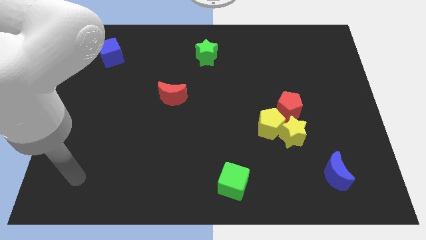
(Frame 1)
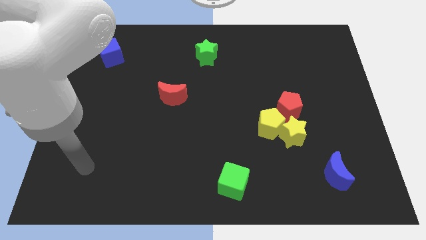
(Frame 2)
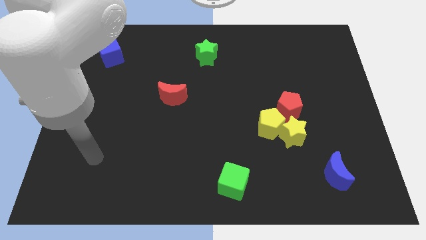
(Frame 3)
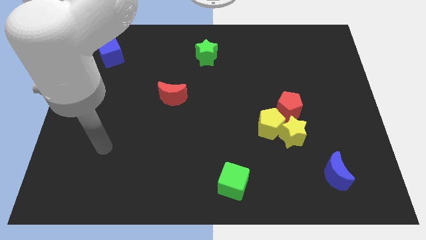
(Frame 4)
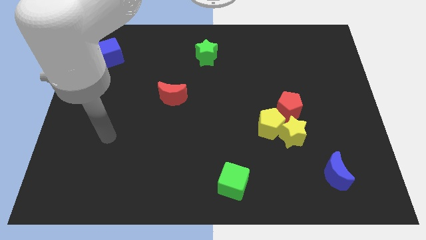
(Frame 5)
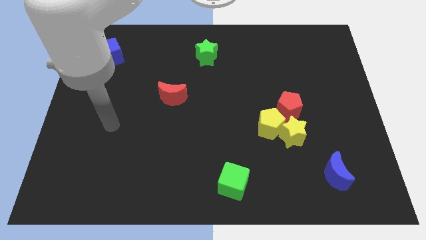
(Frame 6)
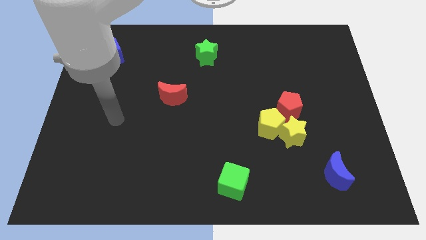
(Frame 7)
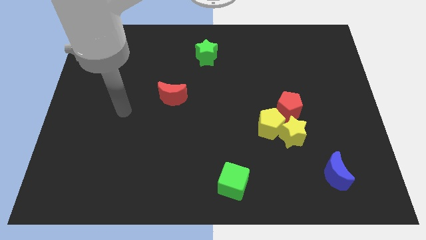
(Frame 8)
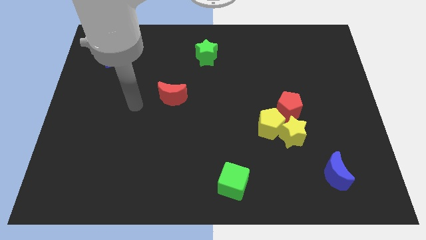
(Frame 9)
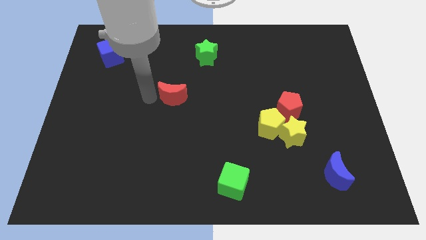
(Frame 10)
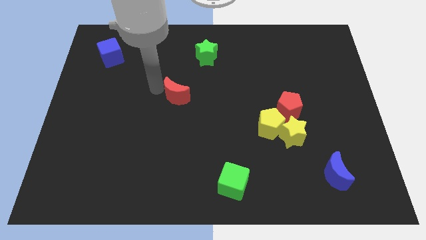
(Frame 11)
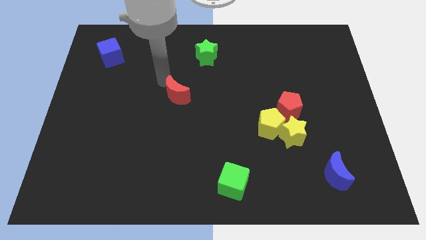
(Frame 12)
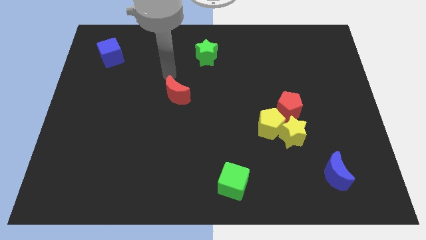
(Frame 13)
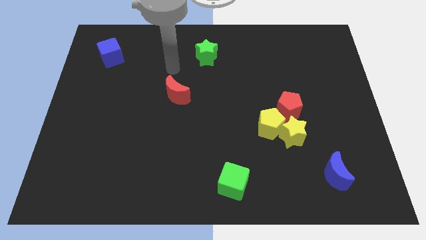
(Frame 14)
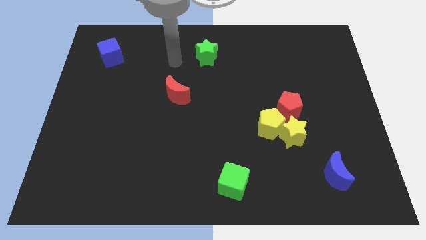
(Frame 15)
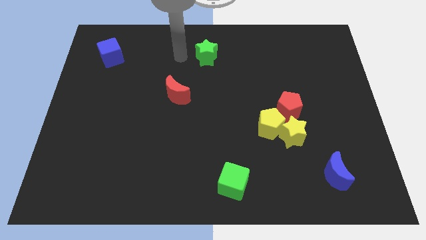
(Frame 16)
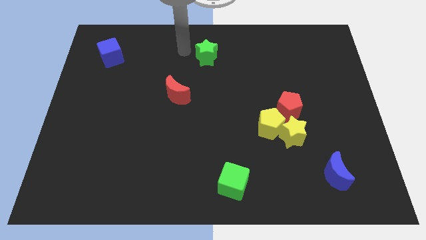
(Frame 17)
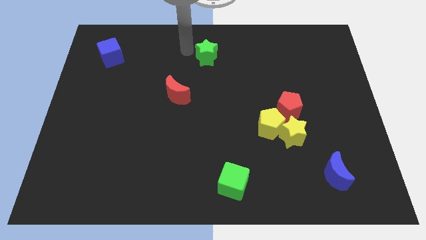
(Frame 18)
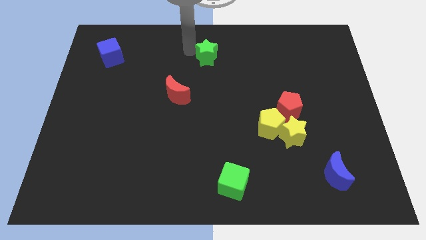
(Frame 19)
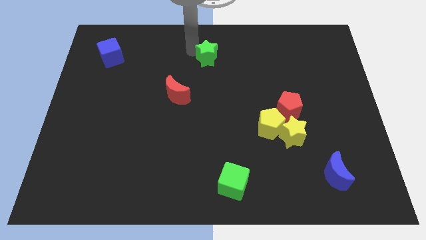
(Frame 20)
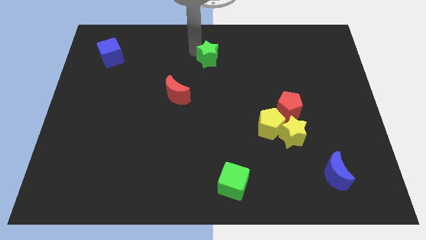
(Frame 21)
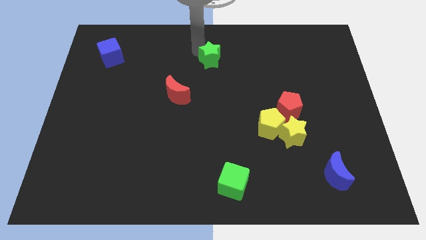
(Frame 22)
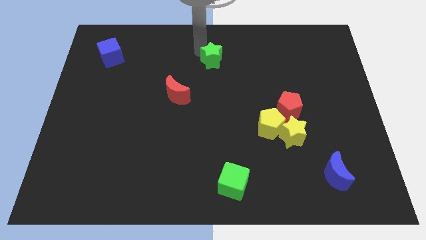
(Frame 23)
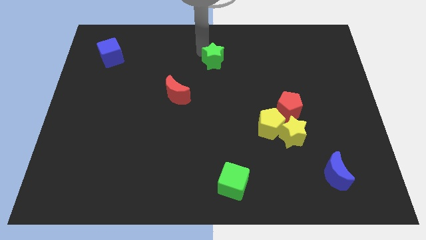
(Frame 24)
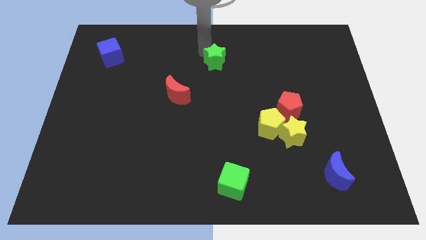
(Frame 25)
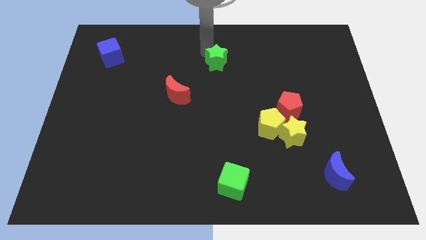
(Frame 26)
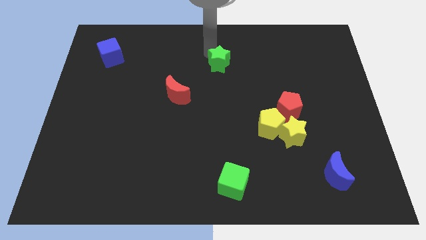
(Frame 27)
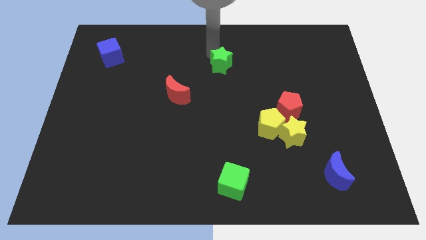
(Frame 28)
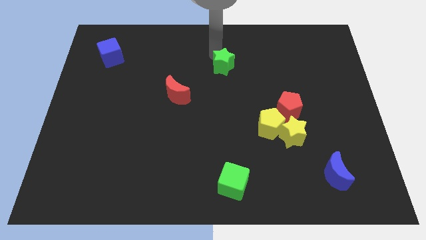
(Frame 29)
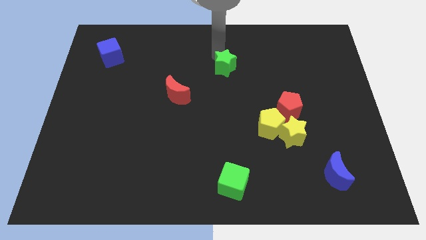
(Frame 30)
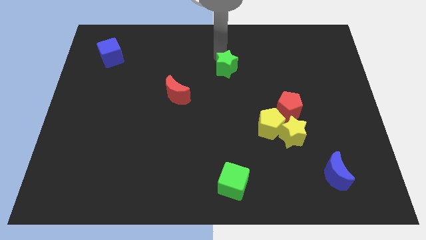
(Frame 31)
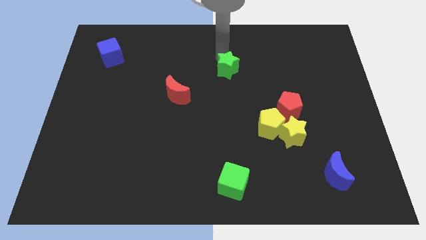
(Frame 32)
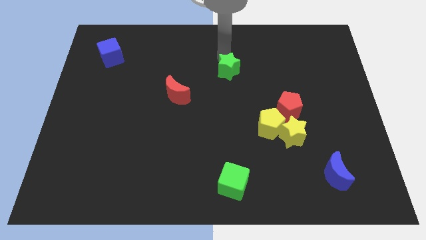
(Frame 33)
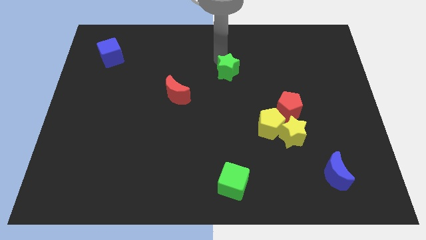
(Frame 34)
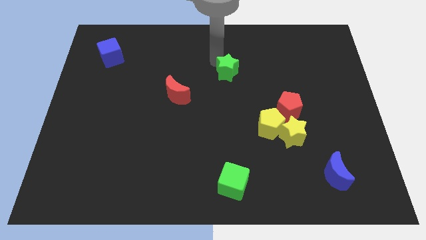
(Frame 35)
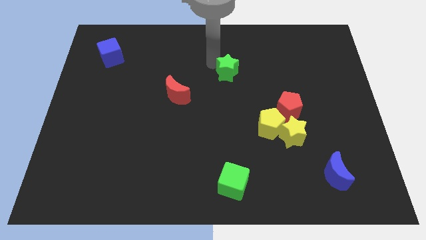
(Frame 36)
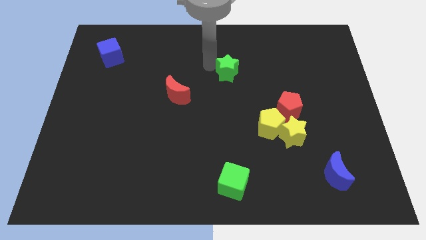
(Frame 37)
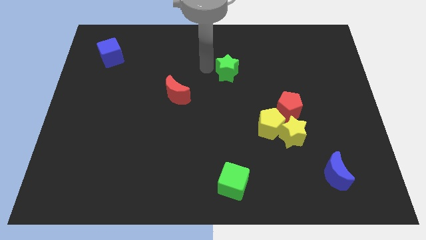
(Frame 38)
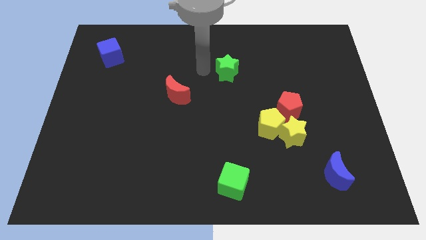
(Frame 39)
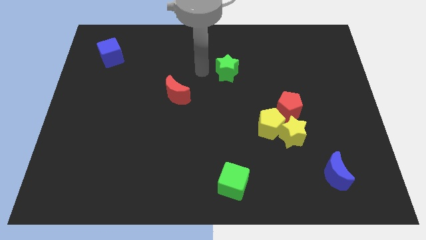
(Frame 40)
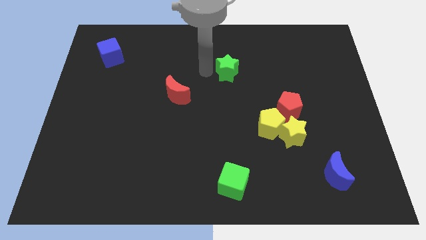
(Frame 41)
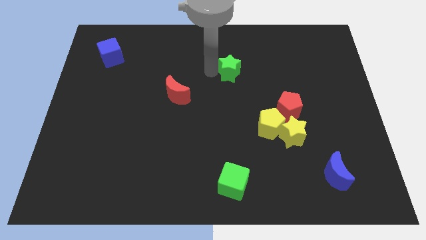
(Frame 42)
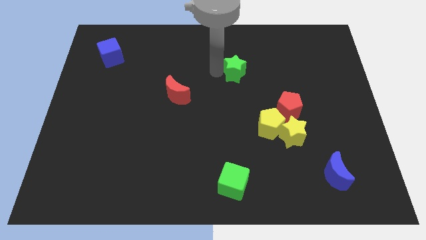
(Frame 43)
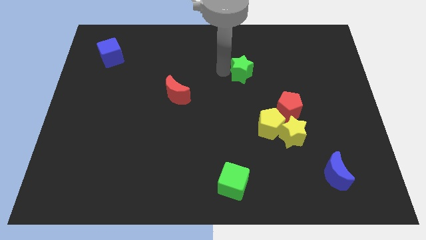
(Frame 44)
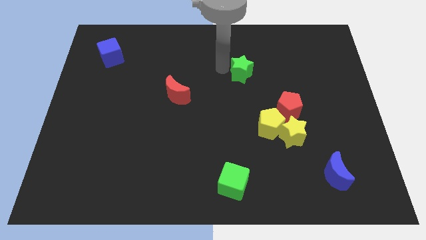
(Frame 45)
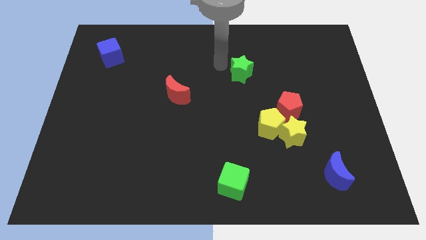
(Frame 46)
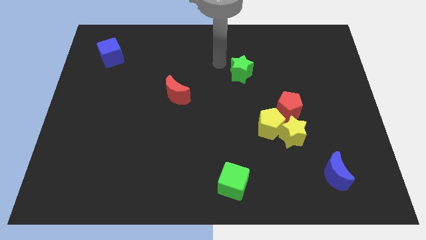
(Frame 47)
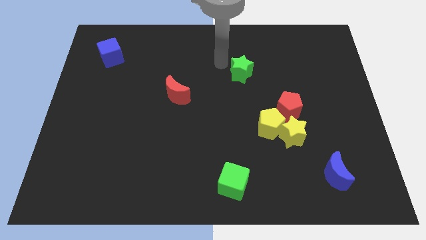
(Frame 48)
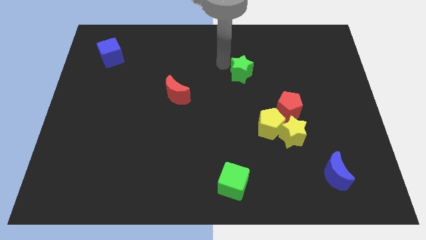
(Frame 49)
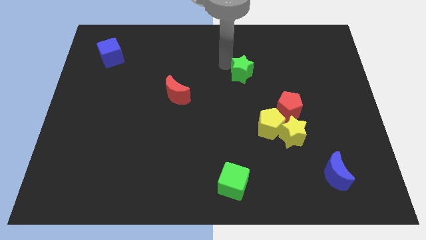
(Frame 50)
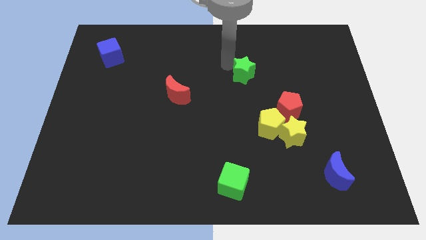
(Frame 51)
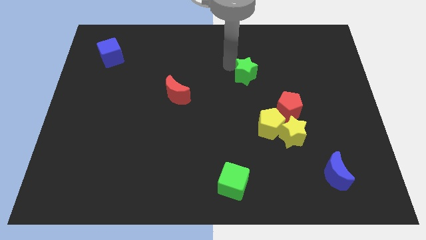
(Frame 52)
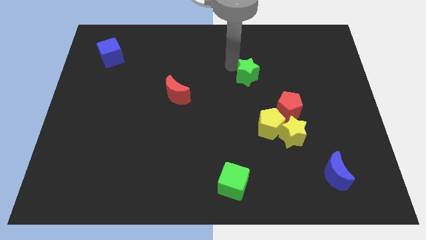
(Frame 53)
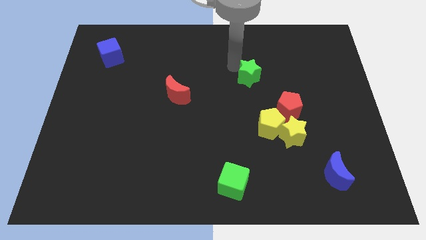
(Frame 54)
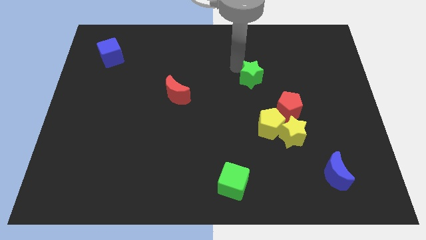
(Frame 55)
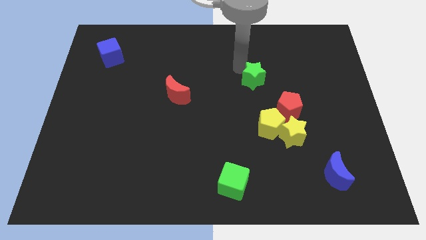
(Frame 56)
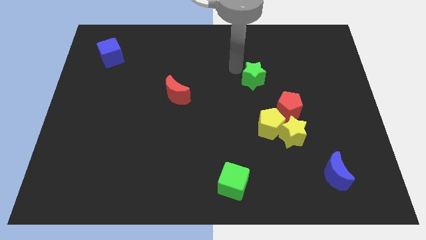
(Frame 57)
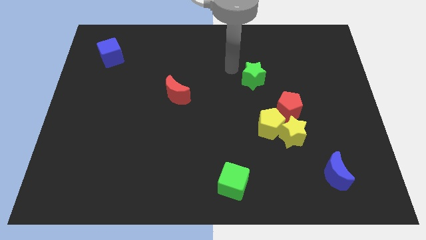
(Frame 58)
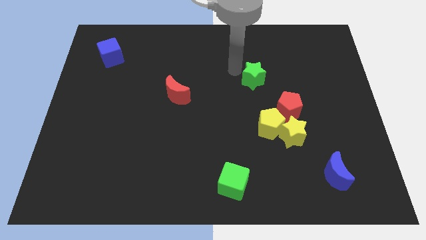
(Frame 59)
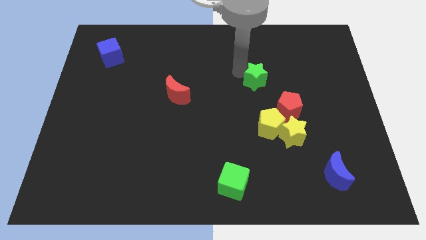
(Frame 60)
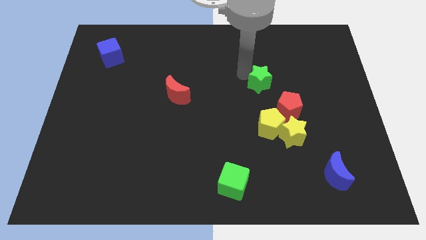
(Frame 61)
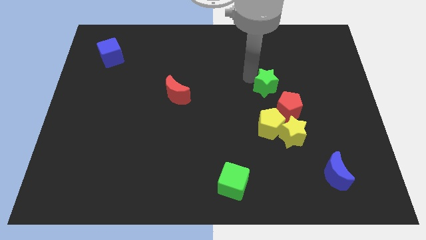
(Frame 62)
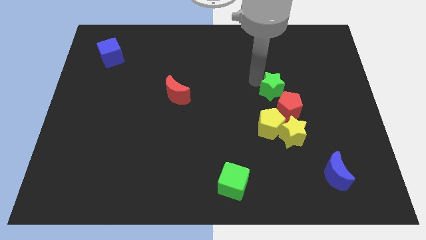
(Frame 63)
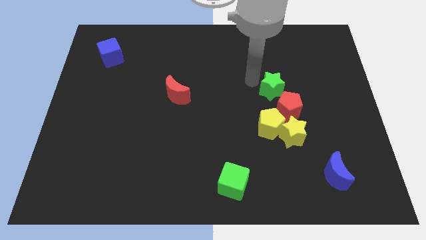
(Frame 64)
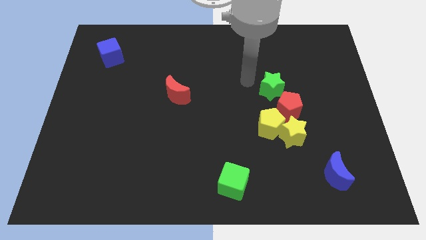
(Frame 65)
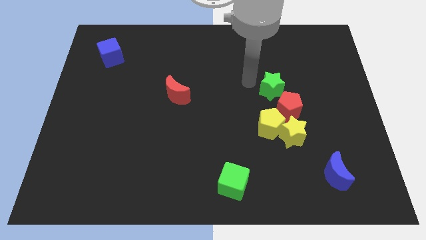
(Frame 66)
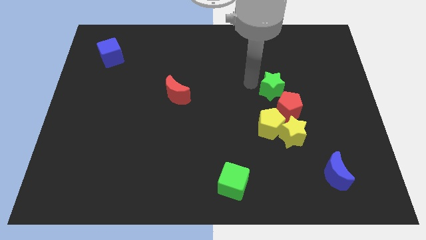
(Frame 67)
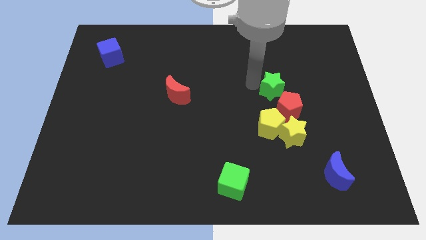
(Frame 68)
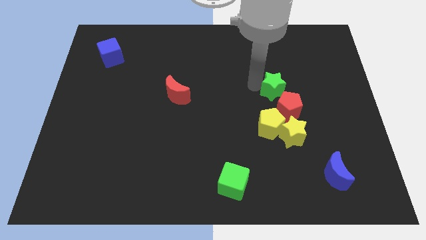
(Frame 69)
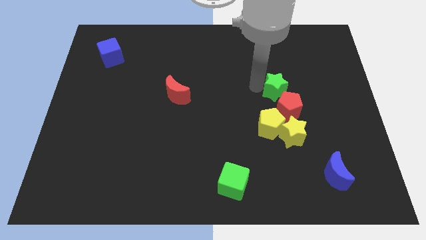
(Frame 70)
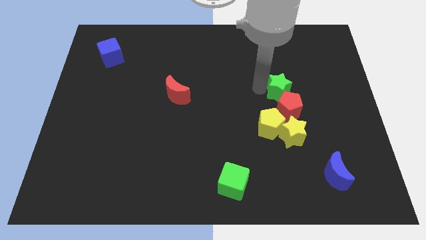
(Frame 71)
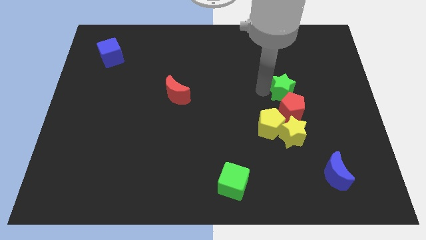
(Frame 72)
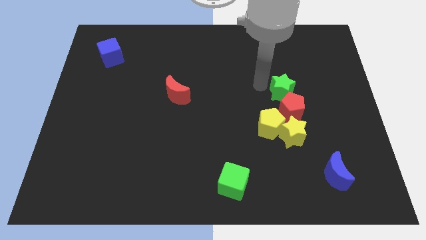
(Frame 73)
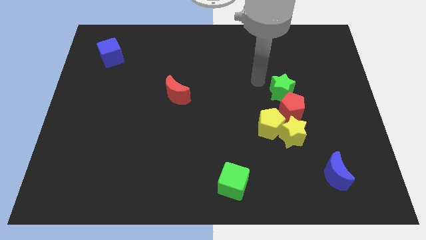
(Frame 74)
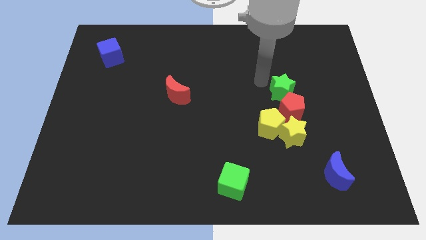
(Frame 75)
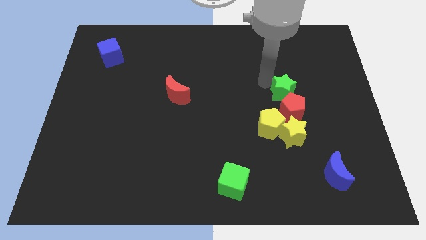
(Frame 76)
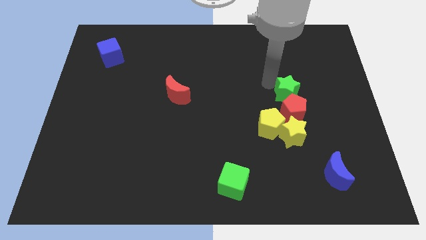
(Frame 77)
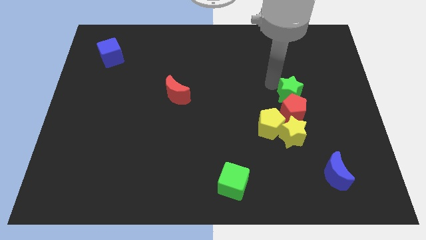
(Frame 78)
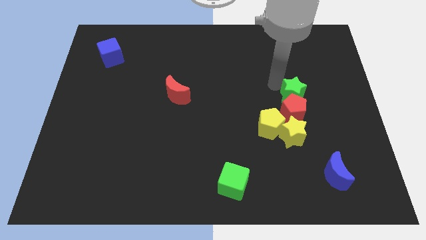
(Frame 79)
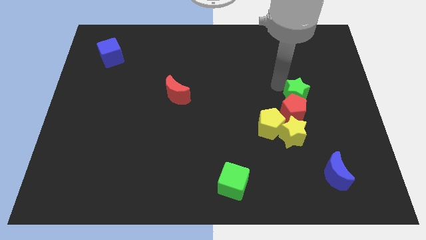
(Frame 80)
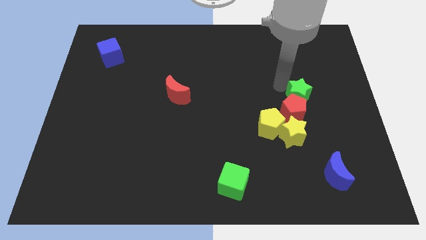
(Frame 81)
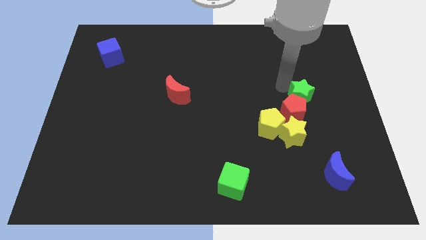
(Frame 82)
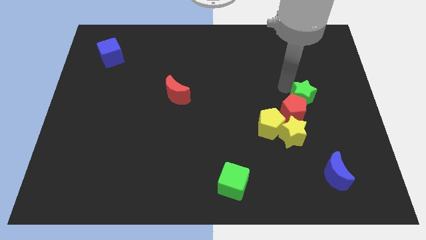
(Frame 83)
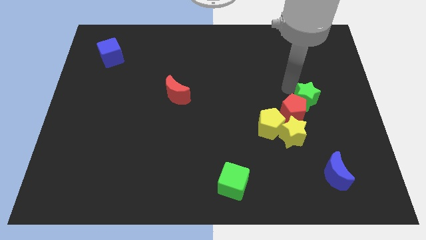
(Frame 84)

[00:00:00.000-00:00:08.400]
put the green star to the right side of the red pentagon
